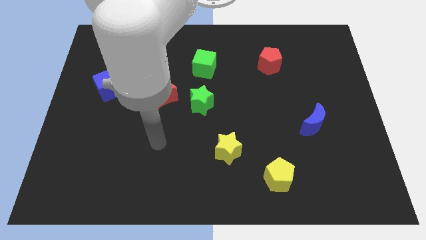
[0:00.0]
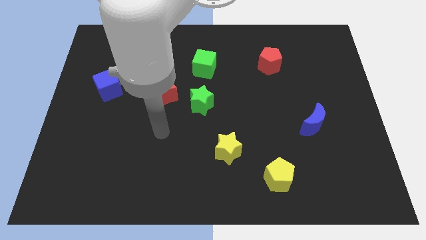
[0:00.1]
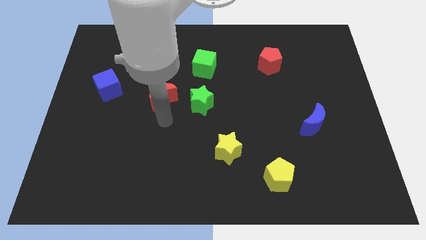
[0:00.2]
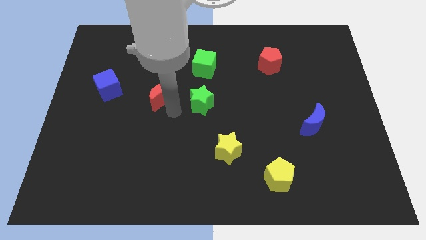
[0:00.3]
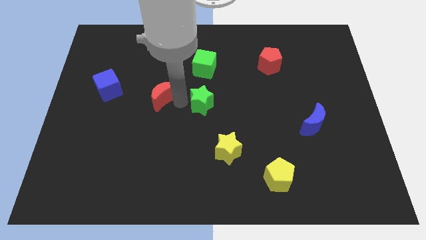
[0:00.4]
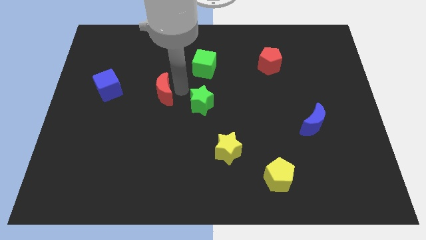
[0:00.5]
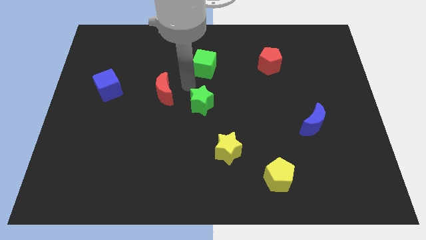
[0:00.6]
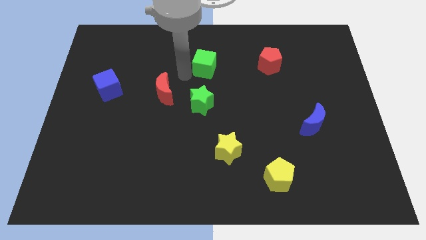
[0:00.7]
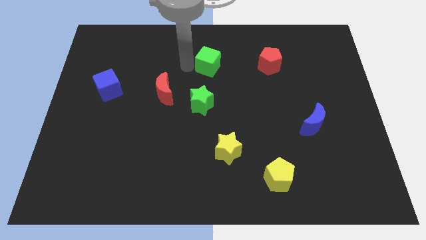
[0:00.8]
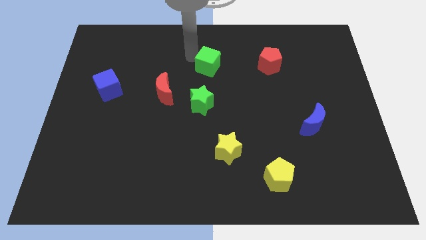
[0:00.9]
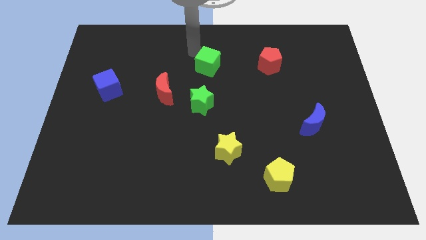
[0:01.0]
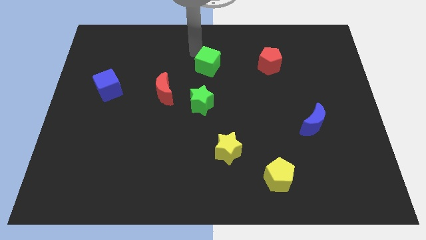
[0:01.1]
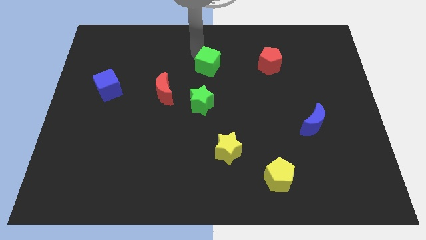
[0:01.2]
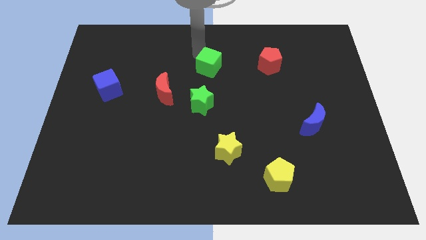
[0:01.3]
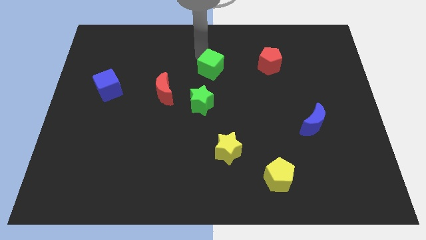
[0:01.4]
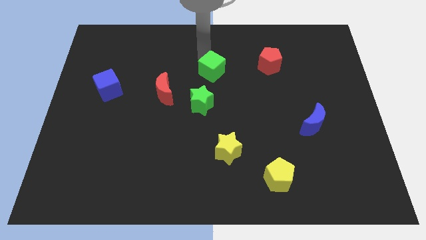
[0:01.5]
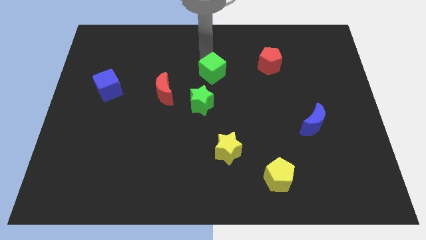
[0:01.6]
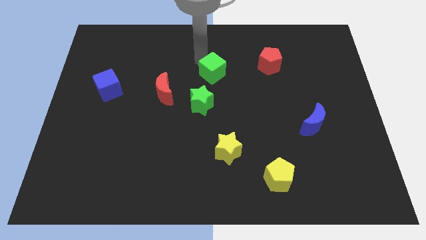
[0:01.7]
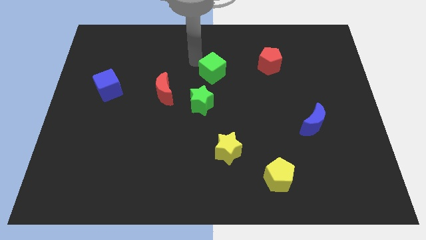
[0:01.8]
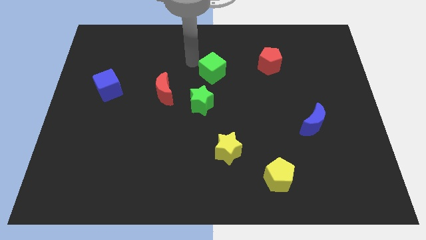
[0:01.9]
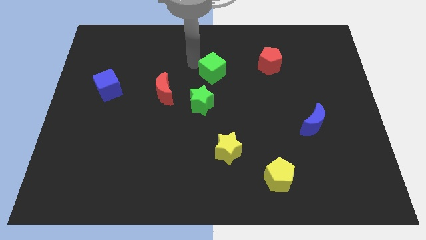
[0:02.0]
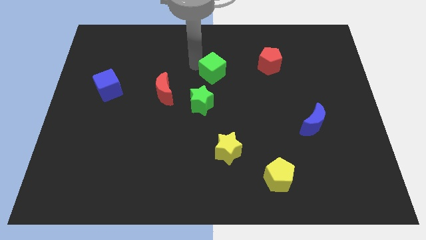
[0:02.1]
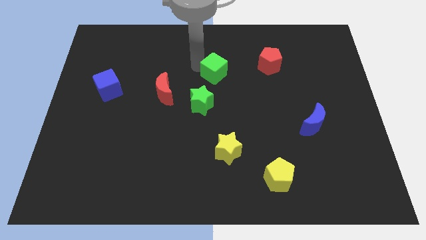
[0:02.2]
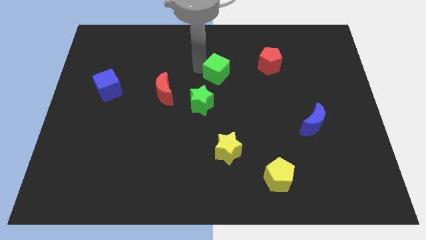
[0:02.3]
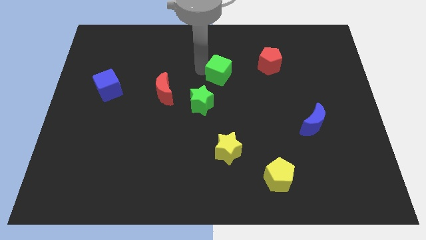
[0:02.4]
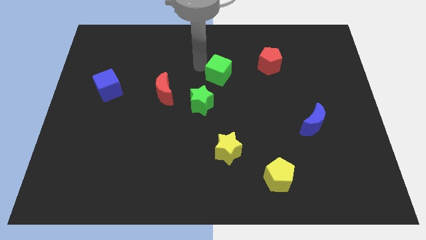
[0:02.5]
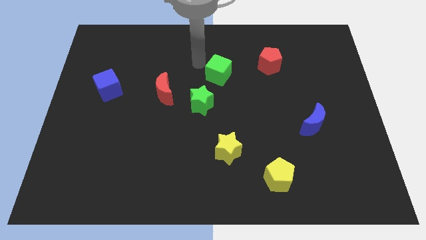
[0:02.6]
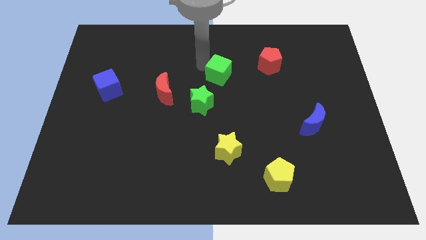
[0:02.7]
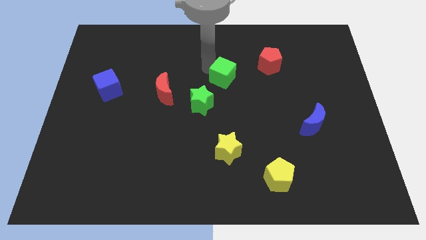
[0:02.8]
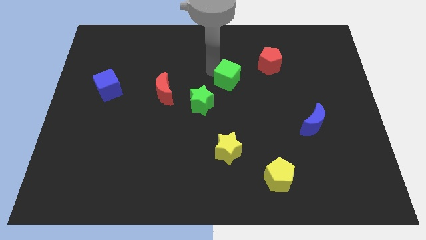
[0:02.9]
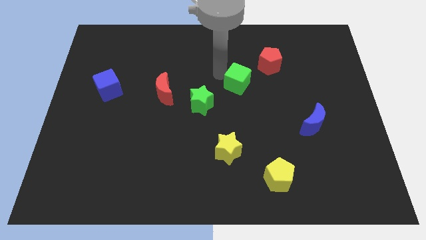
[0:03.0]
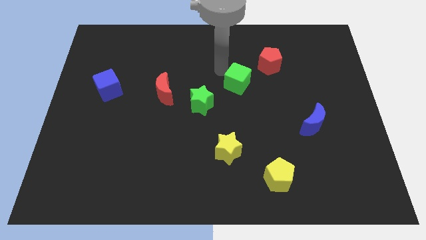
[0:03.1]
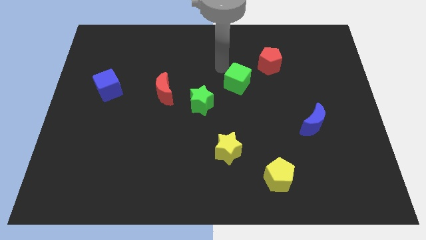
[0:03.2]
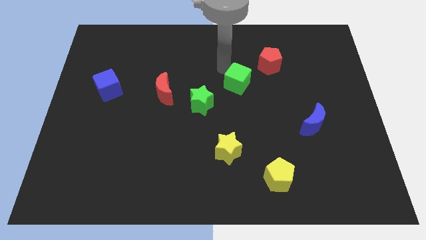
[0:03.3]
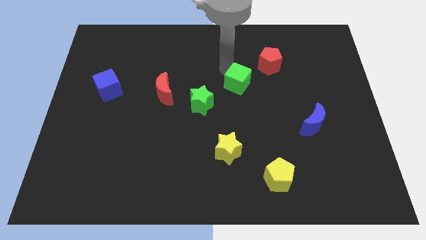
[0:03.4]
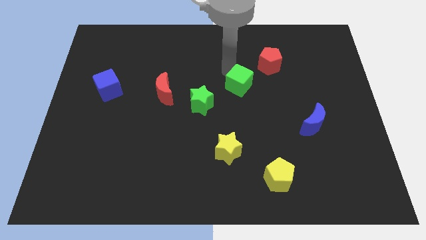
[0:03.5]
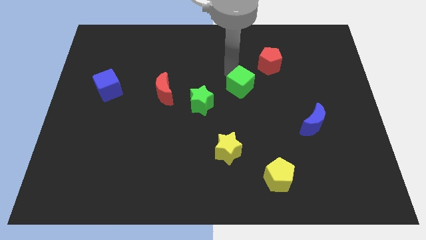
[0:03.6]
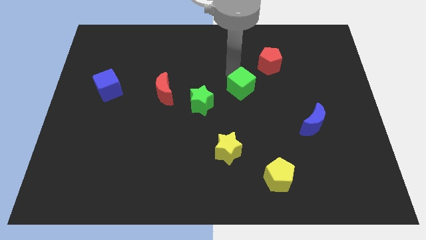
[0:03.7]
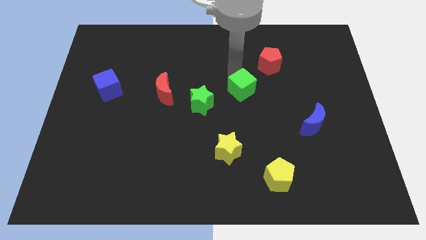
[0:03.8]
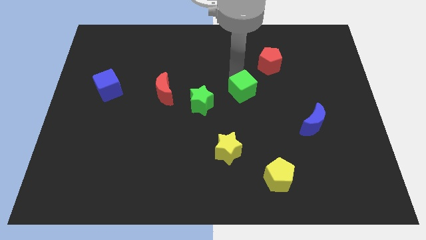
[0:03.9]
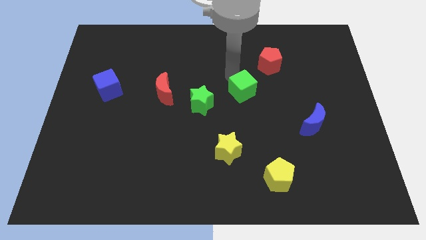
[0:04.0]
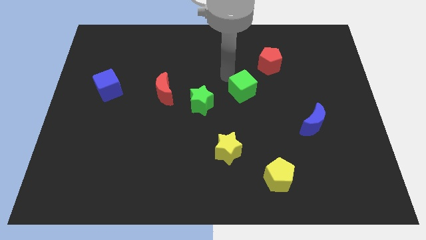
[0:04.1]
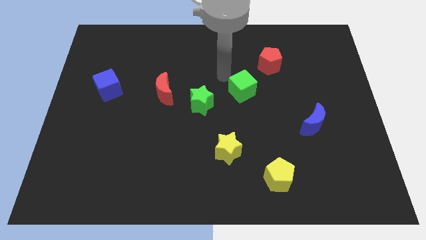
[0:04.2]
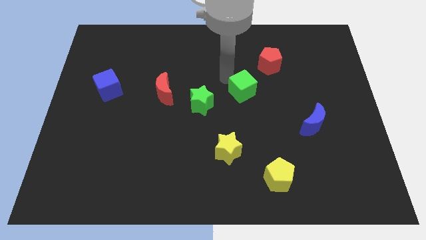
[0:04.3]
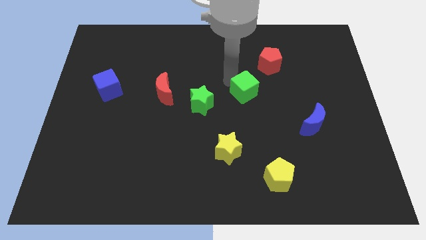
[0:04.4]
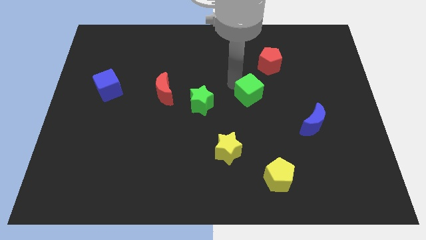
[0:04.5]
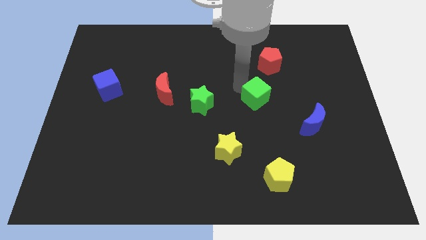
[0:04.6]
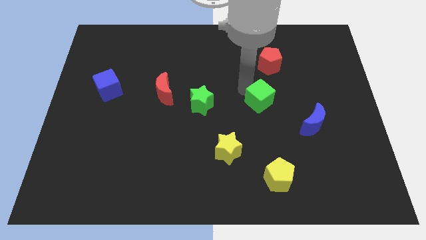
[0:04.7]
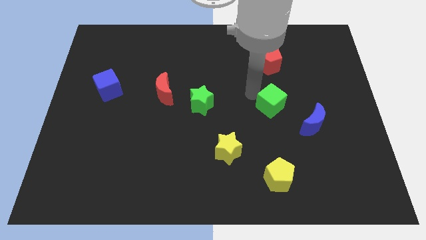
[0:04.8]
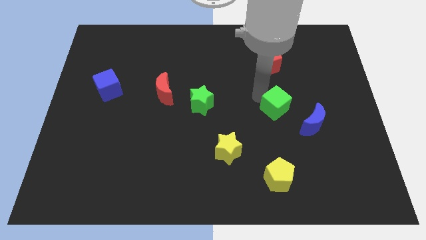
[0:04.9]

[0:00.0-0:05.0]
move the green cube down and right diagonally

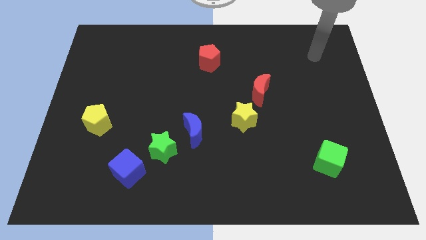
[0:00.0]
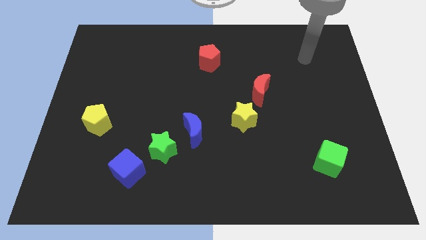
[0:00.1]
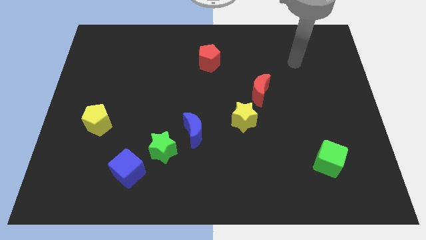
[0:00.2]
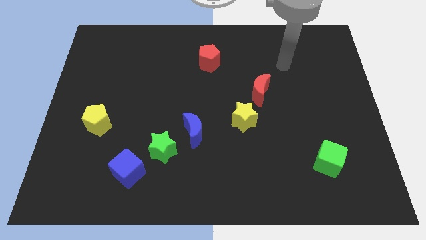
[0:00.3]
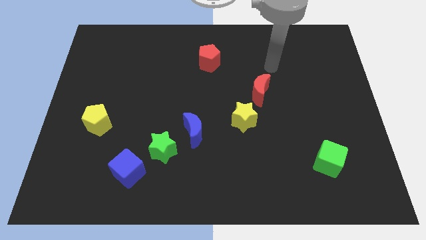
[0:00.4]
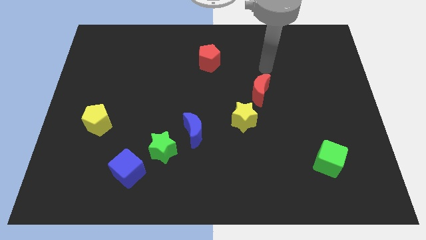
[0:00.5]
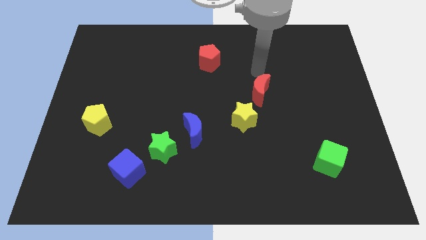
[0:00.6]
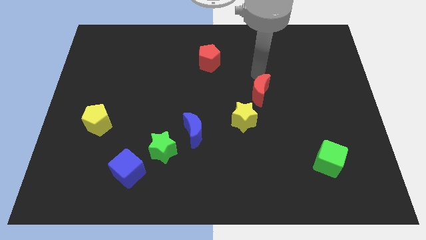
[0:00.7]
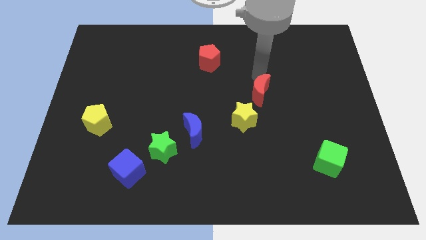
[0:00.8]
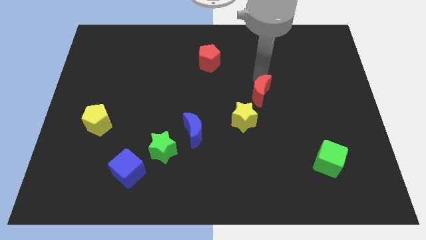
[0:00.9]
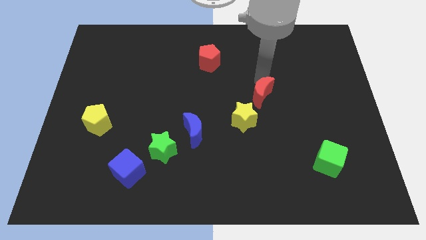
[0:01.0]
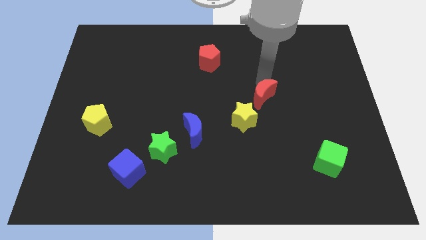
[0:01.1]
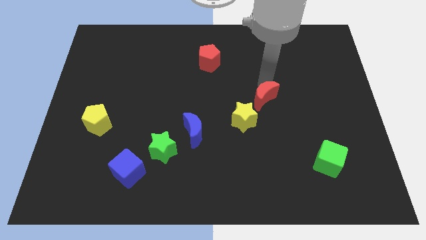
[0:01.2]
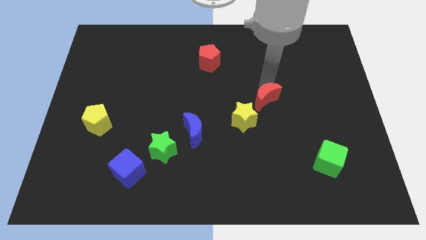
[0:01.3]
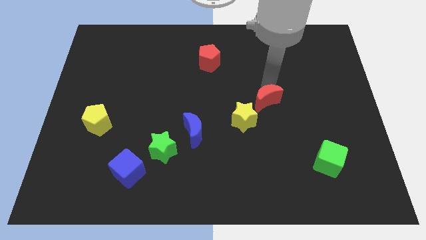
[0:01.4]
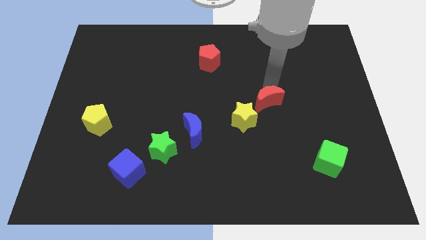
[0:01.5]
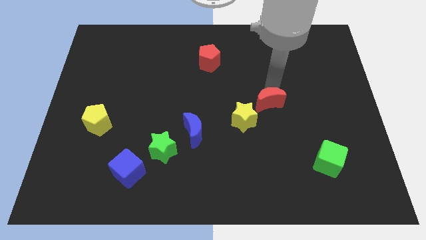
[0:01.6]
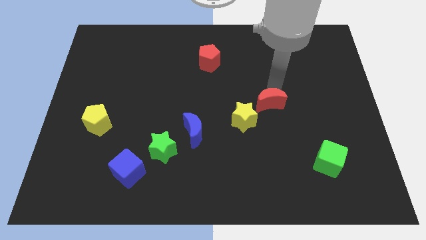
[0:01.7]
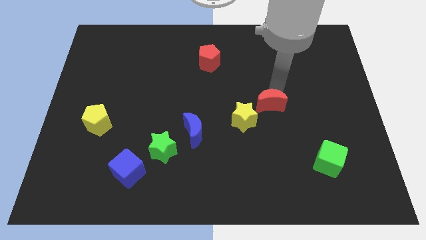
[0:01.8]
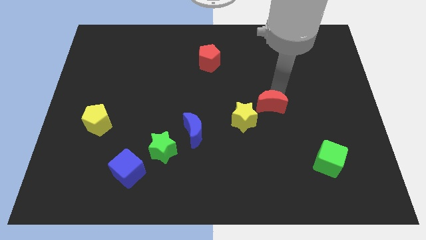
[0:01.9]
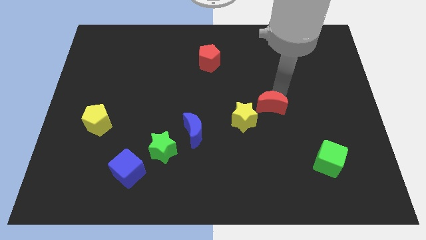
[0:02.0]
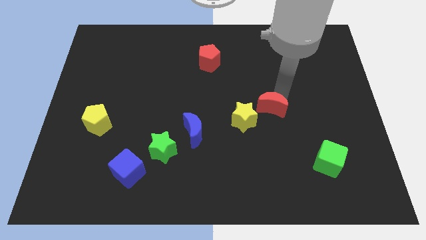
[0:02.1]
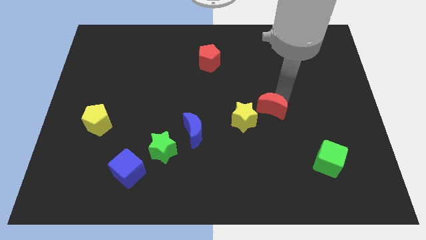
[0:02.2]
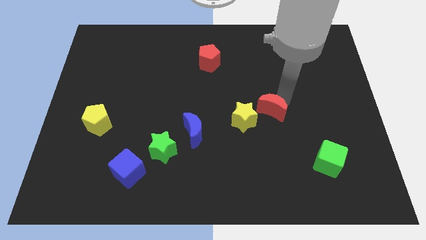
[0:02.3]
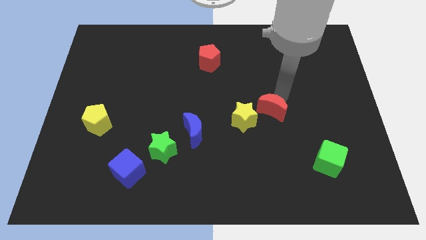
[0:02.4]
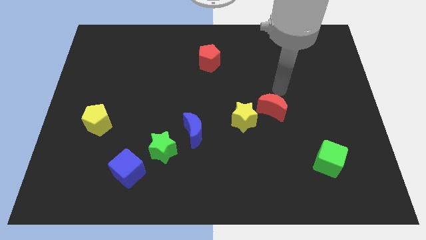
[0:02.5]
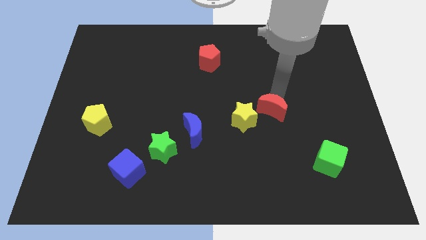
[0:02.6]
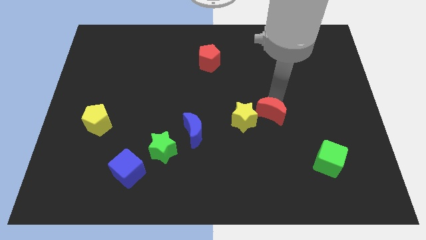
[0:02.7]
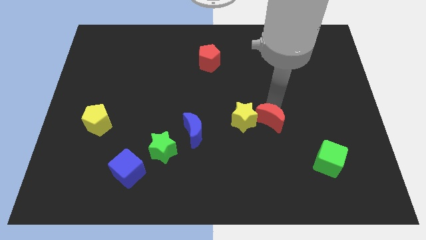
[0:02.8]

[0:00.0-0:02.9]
slightly slide the red moon downwards
